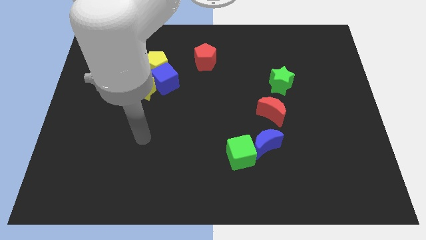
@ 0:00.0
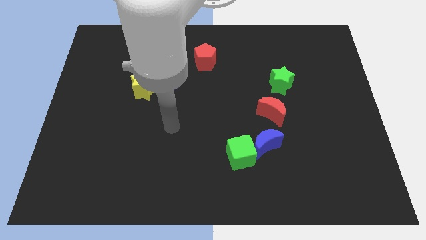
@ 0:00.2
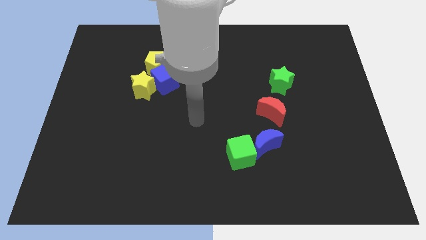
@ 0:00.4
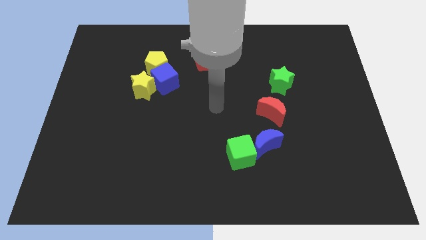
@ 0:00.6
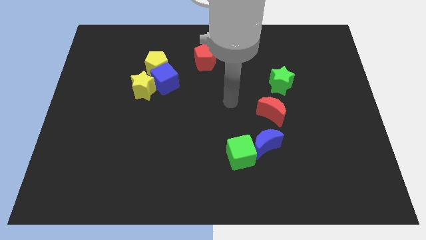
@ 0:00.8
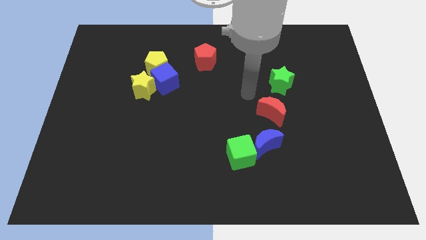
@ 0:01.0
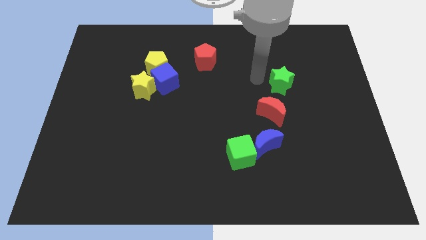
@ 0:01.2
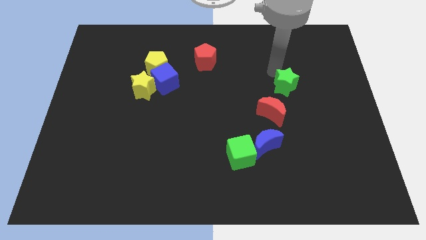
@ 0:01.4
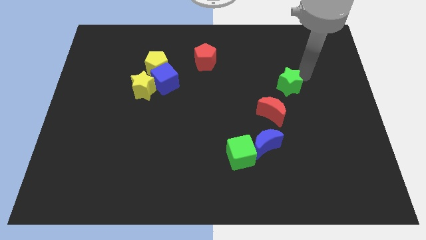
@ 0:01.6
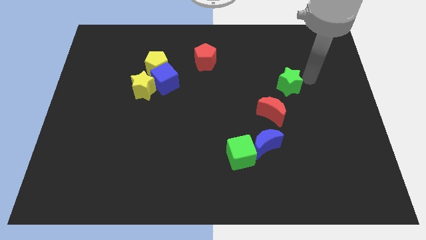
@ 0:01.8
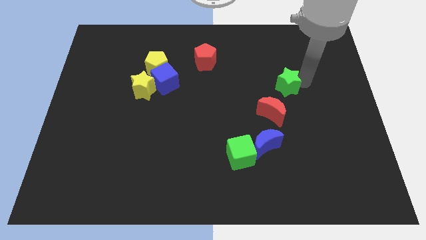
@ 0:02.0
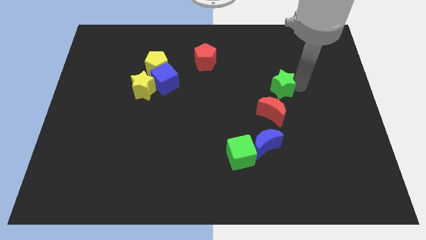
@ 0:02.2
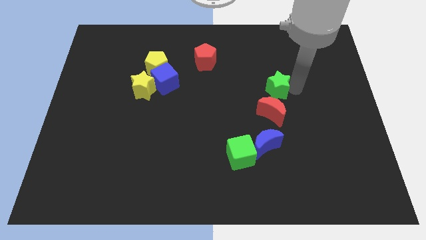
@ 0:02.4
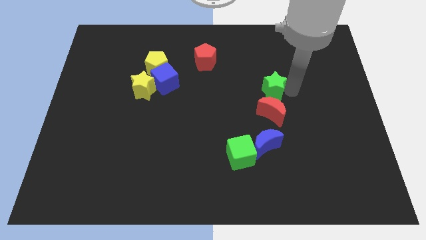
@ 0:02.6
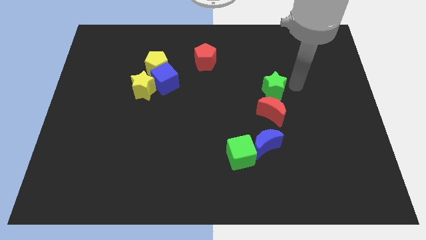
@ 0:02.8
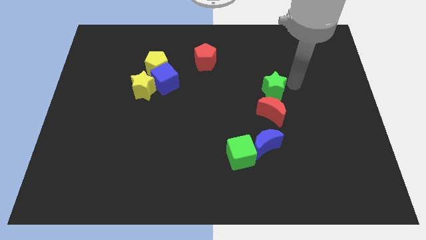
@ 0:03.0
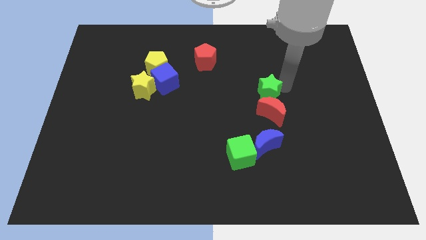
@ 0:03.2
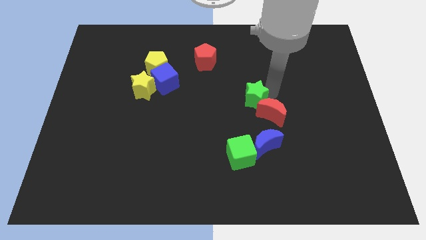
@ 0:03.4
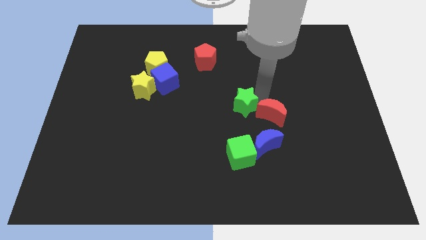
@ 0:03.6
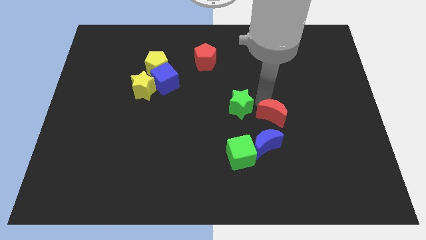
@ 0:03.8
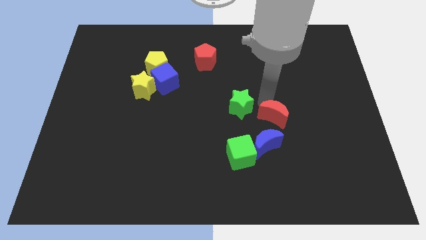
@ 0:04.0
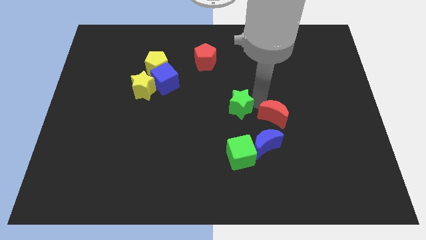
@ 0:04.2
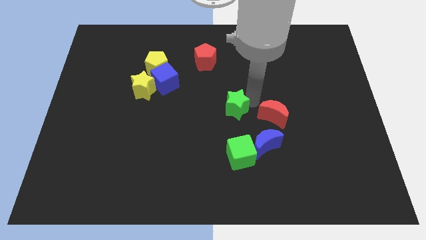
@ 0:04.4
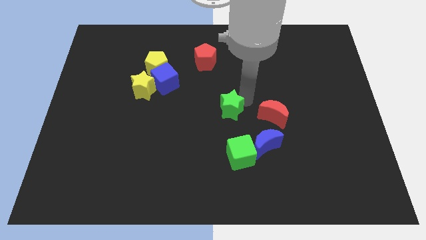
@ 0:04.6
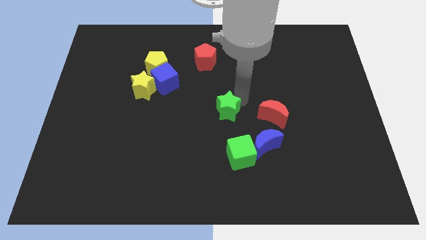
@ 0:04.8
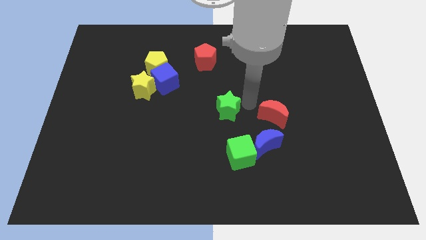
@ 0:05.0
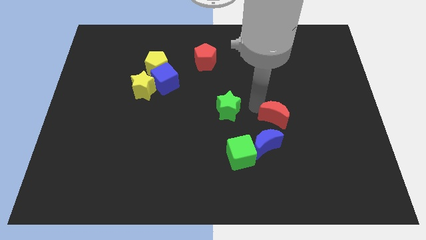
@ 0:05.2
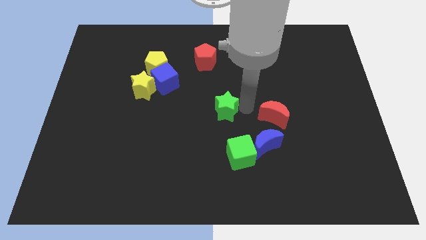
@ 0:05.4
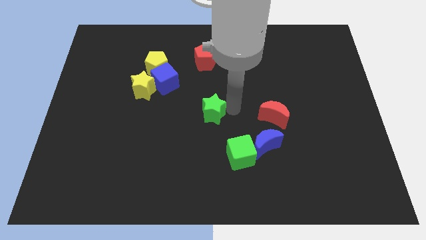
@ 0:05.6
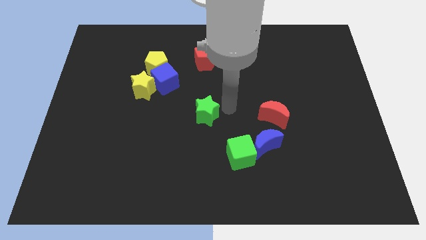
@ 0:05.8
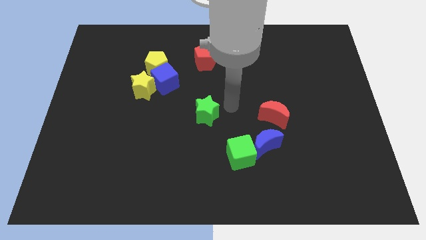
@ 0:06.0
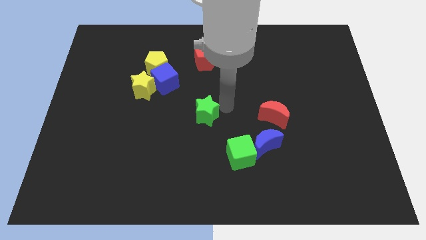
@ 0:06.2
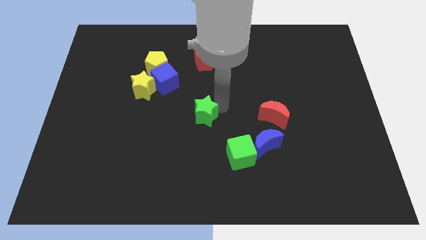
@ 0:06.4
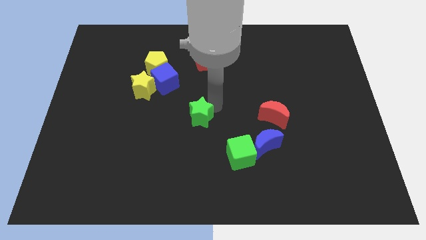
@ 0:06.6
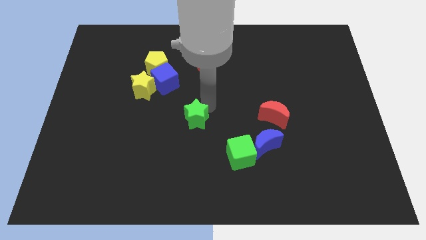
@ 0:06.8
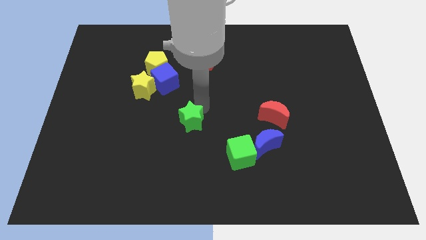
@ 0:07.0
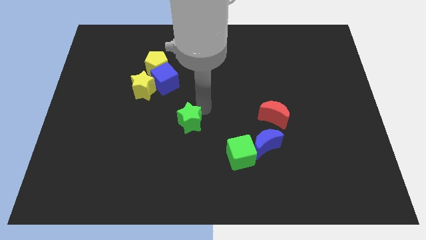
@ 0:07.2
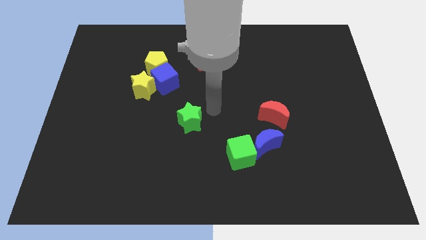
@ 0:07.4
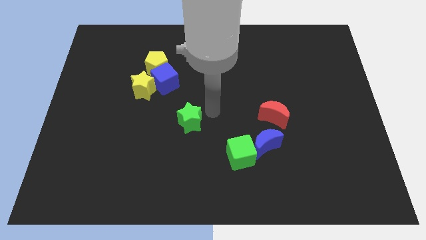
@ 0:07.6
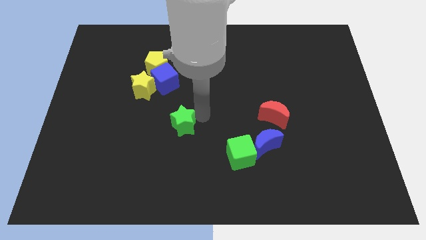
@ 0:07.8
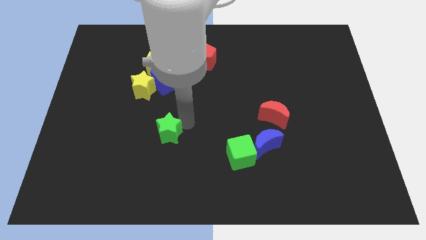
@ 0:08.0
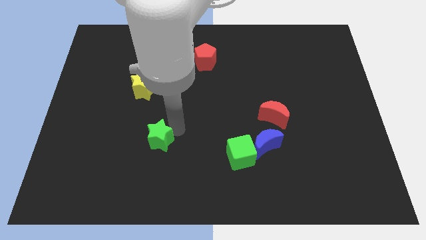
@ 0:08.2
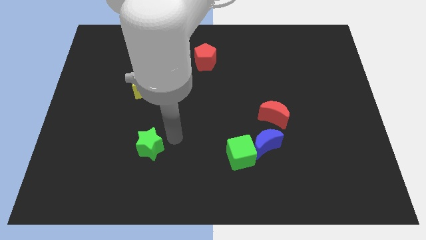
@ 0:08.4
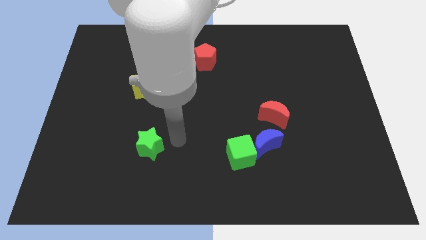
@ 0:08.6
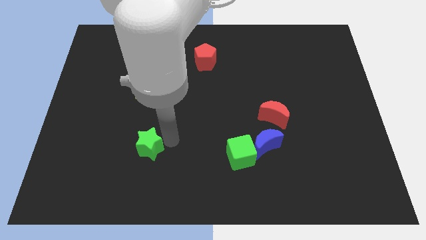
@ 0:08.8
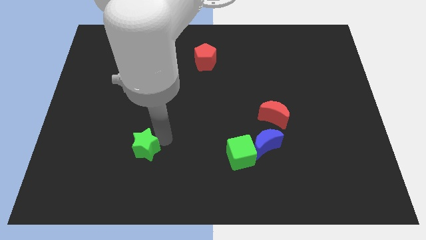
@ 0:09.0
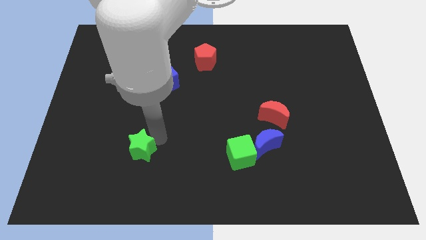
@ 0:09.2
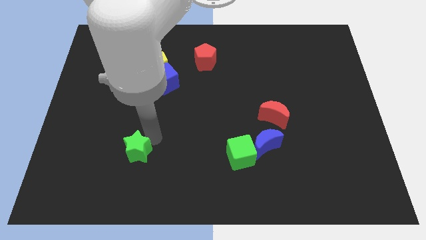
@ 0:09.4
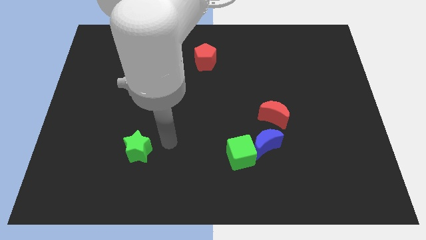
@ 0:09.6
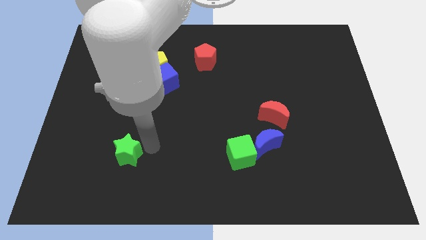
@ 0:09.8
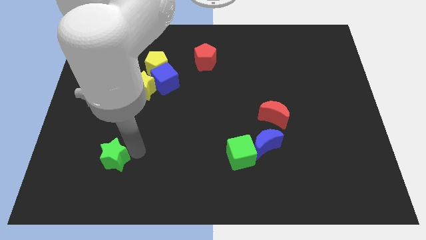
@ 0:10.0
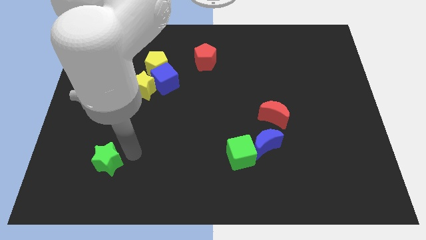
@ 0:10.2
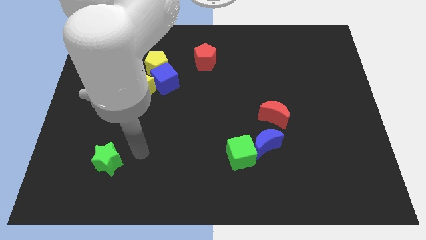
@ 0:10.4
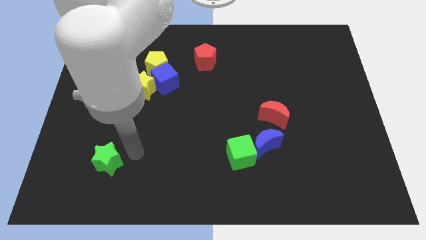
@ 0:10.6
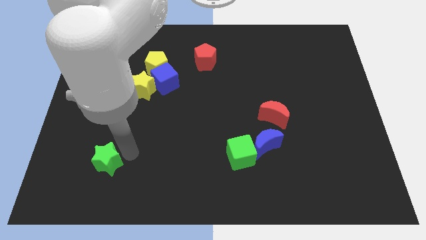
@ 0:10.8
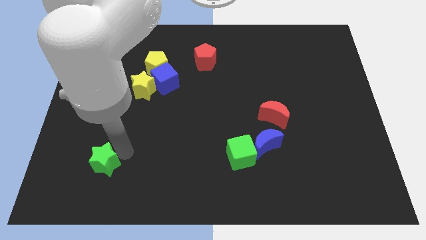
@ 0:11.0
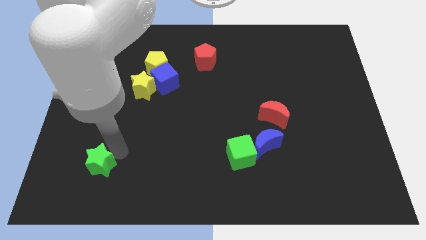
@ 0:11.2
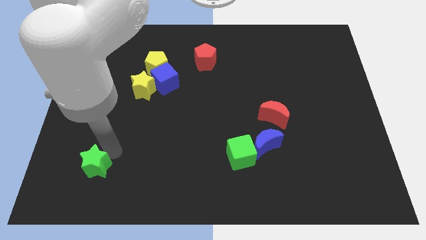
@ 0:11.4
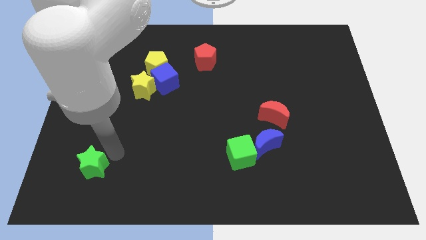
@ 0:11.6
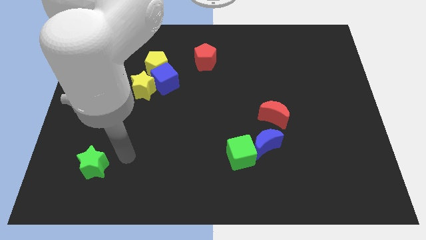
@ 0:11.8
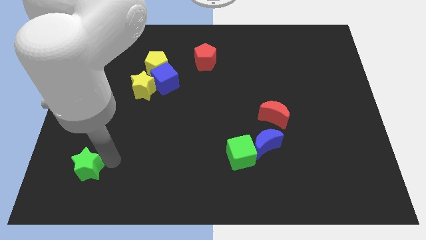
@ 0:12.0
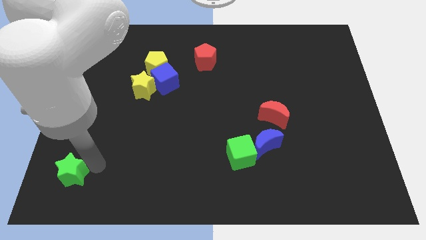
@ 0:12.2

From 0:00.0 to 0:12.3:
move the green star to the bottom left corner

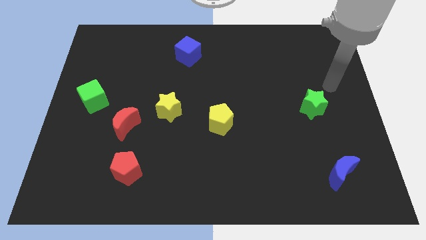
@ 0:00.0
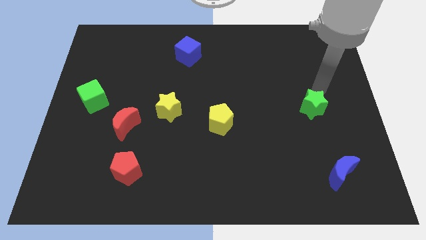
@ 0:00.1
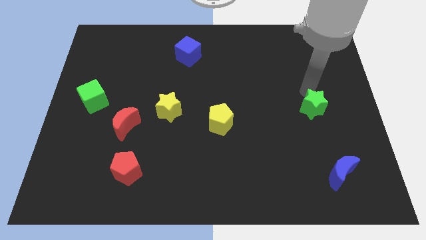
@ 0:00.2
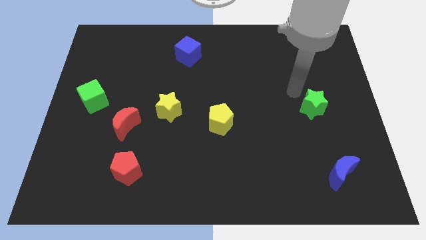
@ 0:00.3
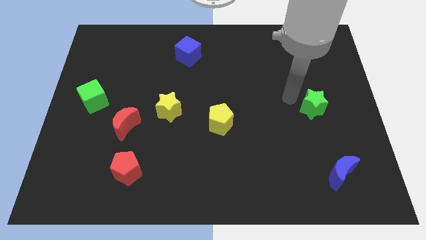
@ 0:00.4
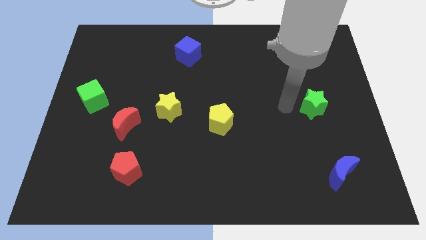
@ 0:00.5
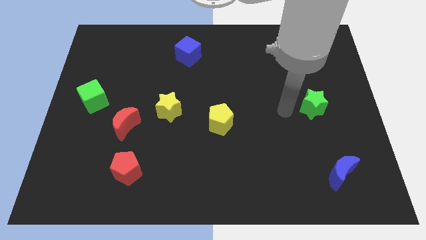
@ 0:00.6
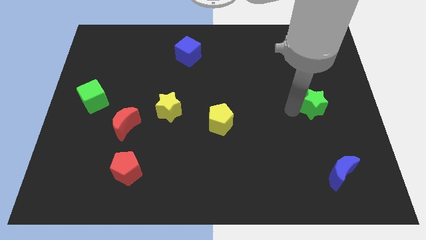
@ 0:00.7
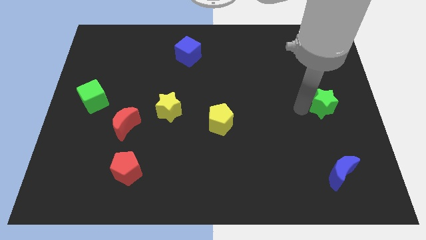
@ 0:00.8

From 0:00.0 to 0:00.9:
slide the green star to the center right
